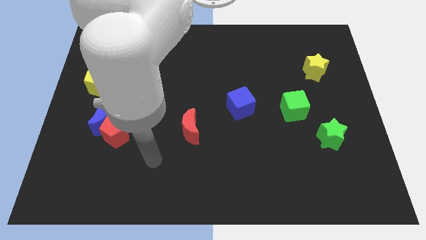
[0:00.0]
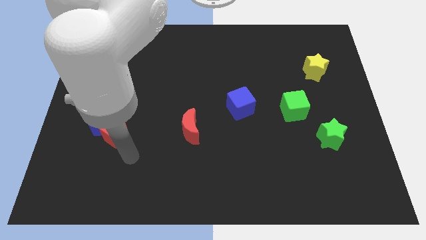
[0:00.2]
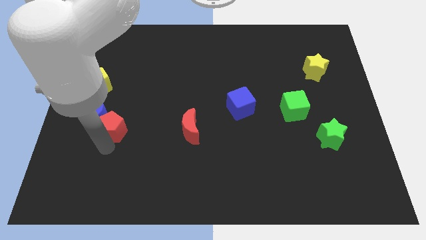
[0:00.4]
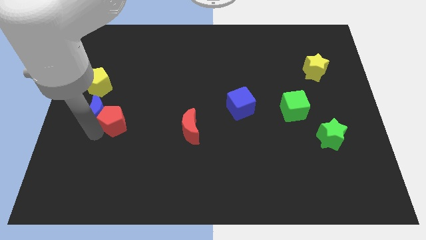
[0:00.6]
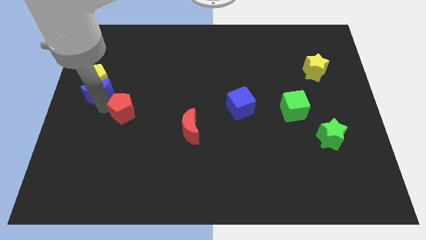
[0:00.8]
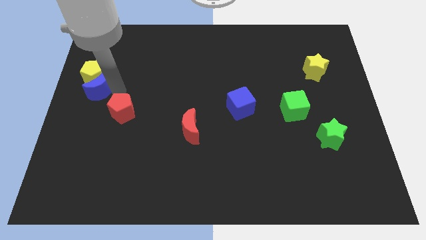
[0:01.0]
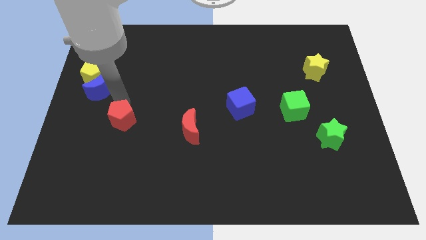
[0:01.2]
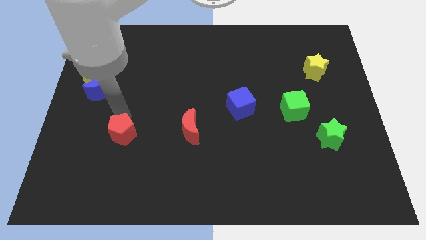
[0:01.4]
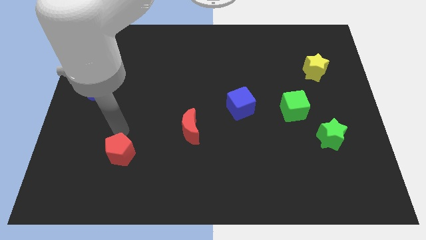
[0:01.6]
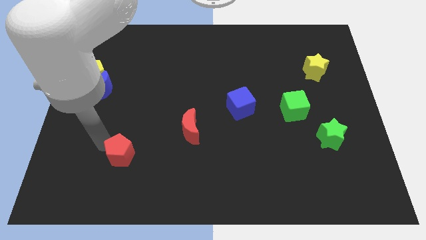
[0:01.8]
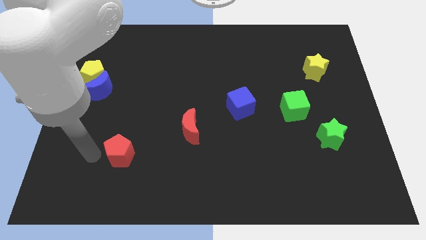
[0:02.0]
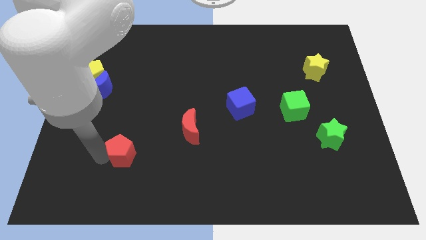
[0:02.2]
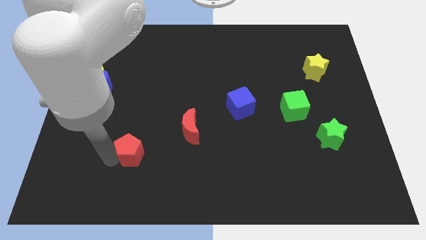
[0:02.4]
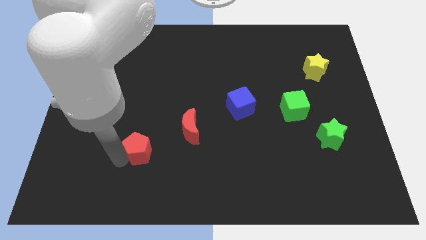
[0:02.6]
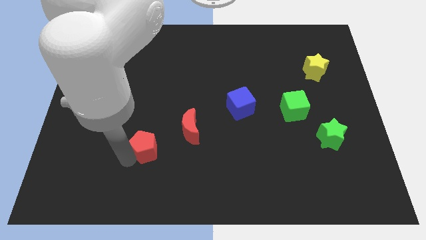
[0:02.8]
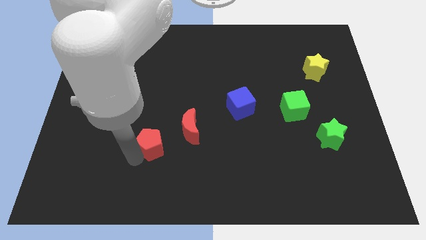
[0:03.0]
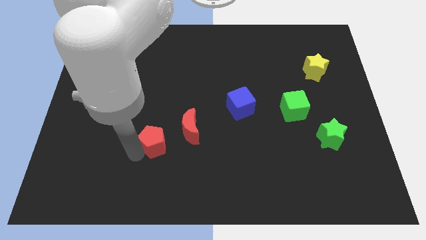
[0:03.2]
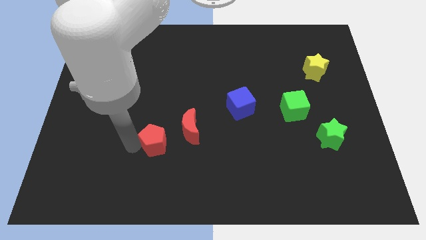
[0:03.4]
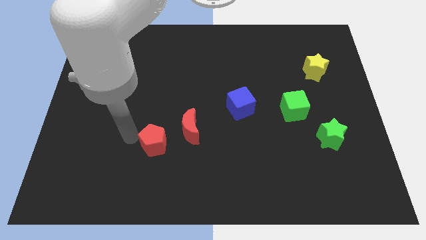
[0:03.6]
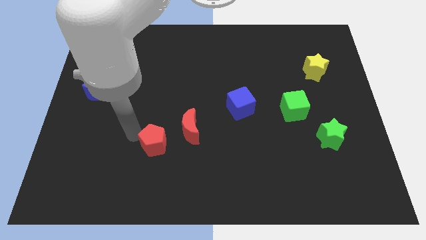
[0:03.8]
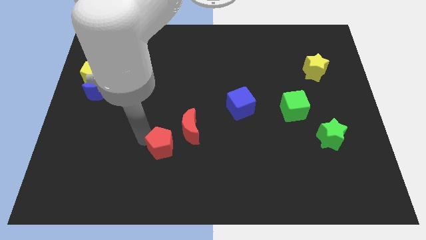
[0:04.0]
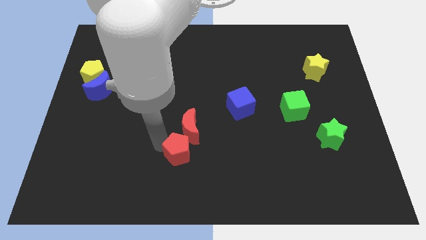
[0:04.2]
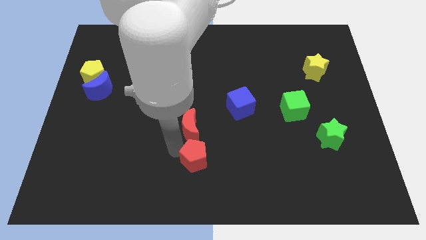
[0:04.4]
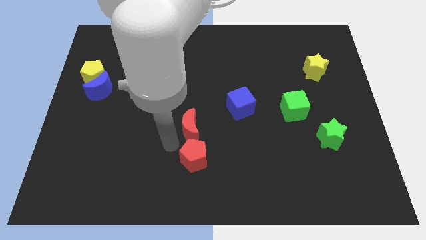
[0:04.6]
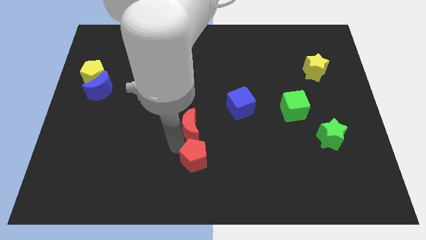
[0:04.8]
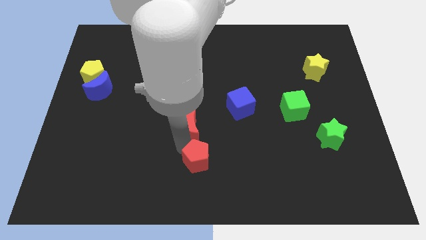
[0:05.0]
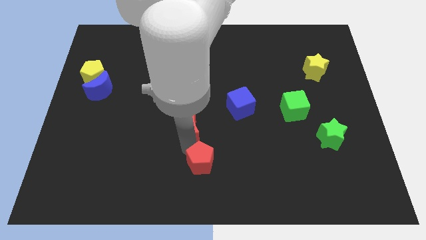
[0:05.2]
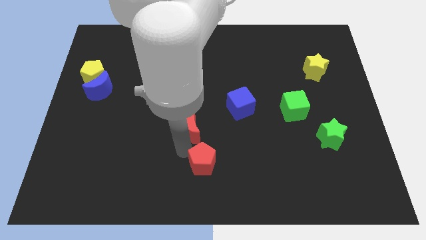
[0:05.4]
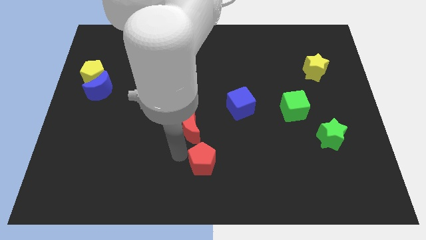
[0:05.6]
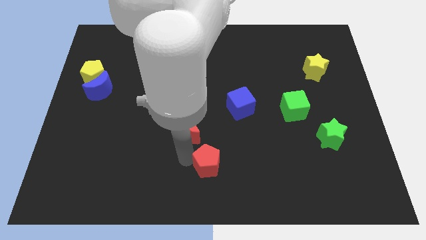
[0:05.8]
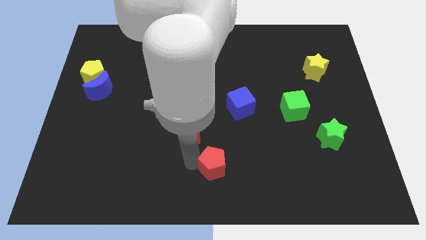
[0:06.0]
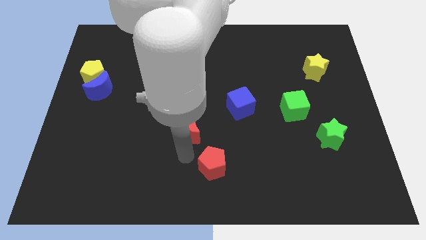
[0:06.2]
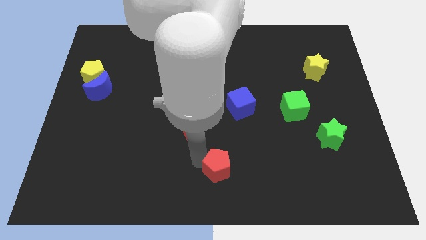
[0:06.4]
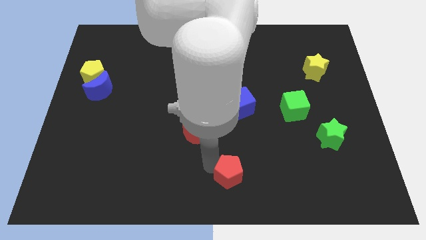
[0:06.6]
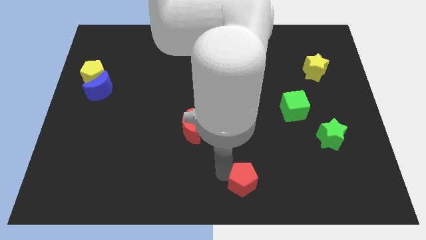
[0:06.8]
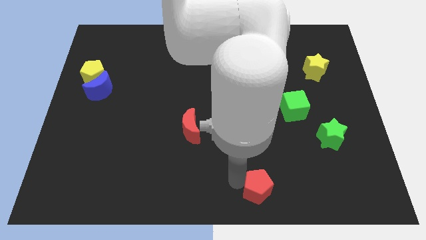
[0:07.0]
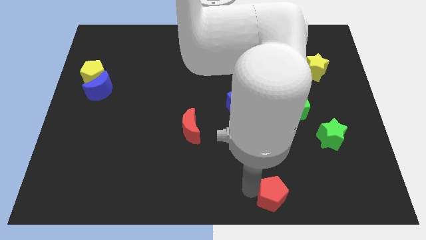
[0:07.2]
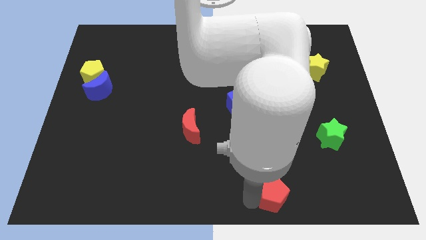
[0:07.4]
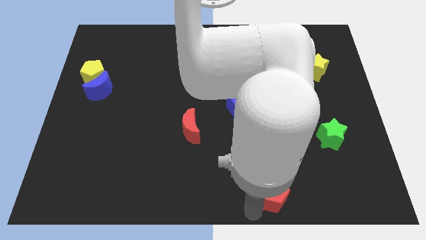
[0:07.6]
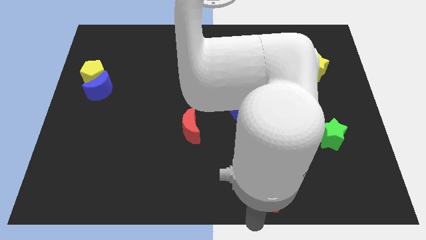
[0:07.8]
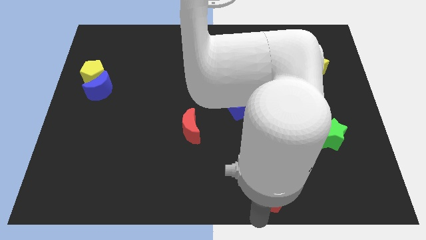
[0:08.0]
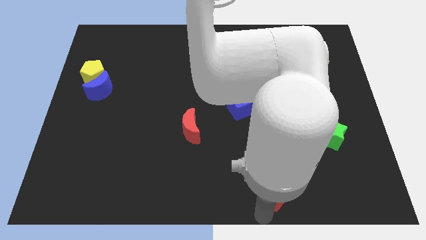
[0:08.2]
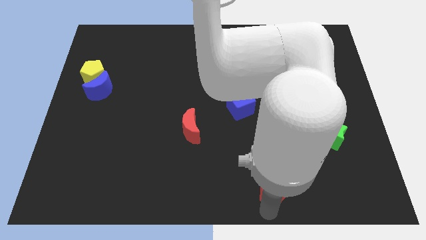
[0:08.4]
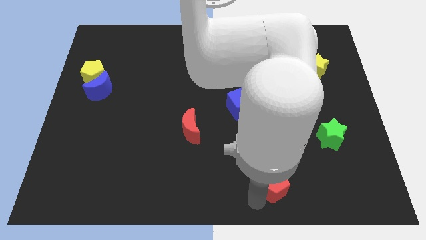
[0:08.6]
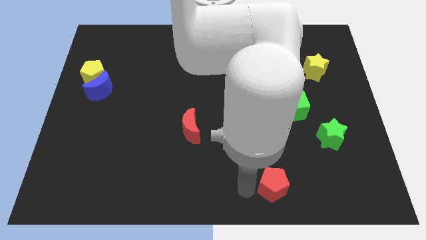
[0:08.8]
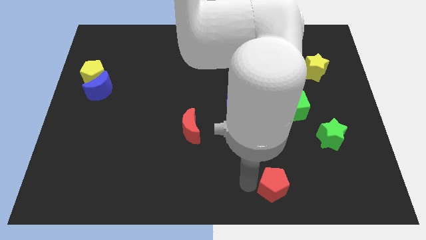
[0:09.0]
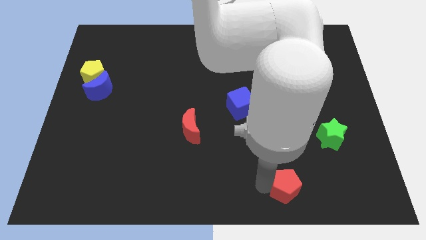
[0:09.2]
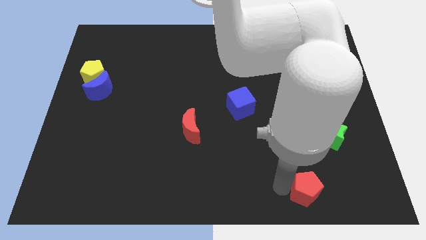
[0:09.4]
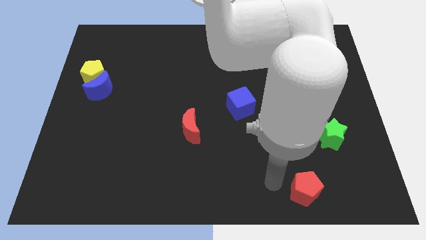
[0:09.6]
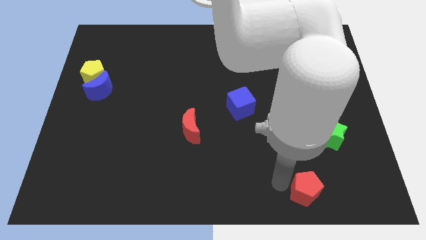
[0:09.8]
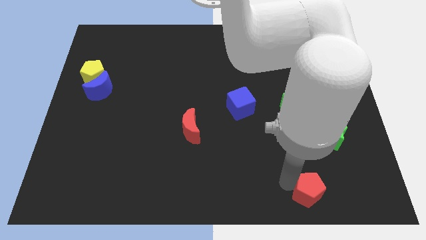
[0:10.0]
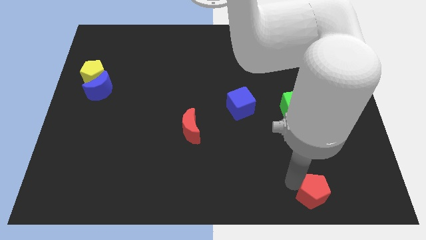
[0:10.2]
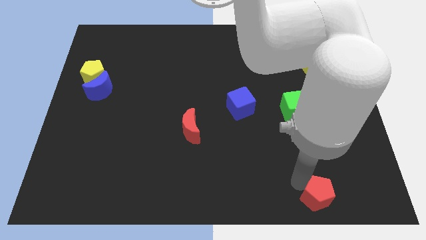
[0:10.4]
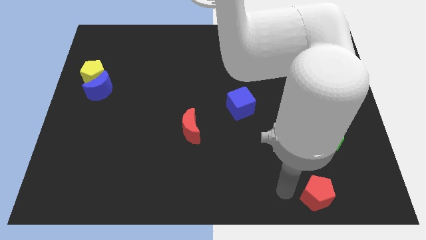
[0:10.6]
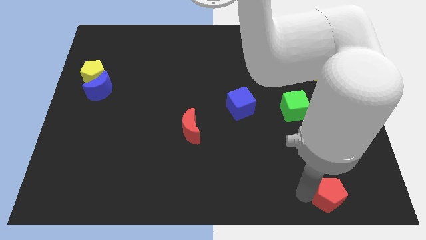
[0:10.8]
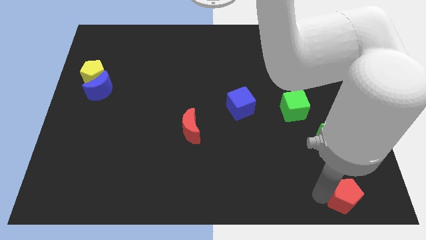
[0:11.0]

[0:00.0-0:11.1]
slide the red pentagon to the bottom right corner

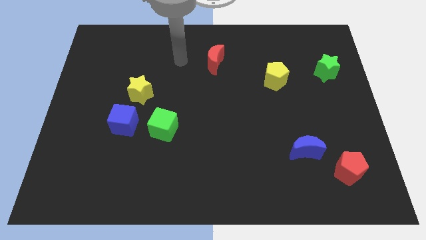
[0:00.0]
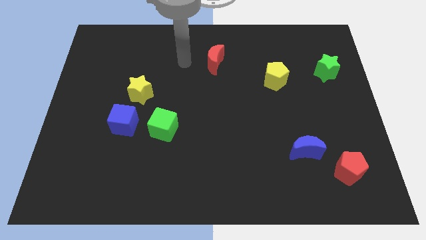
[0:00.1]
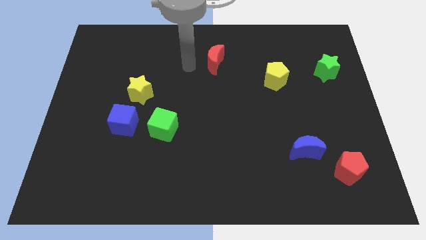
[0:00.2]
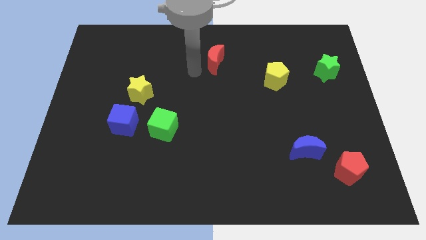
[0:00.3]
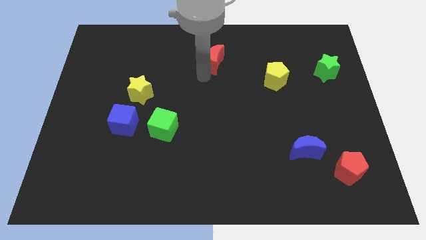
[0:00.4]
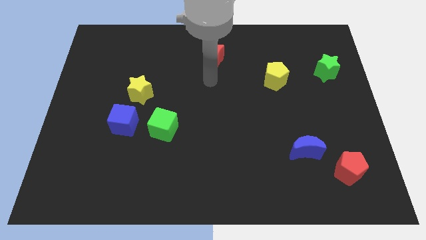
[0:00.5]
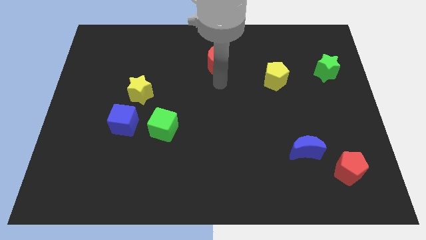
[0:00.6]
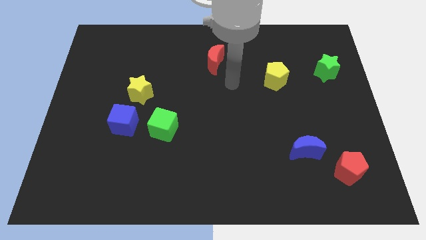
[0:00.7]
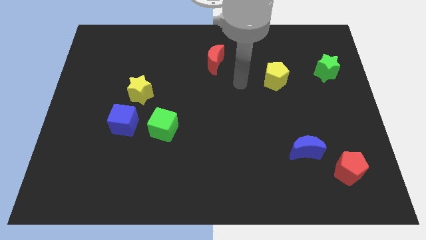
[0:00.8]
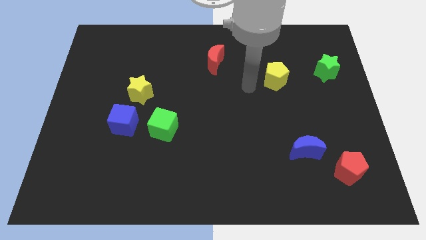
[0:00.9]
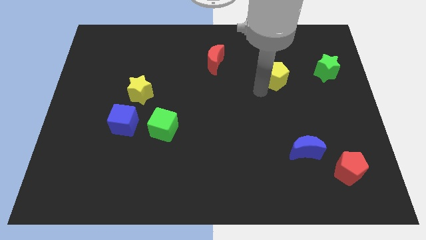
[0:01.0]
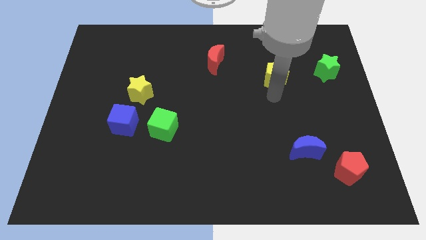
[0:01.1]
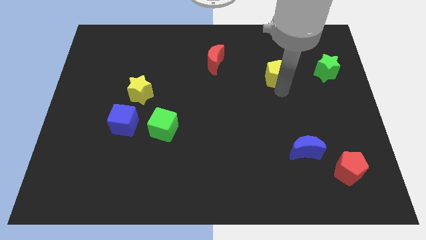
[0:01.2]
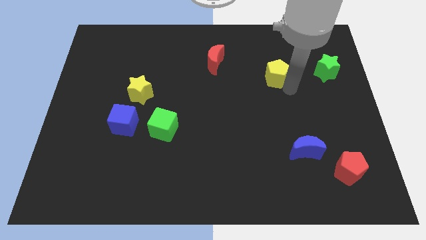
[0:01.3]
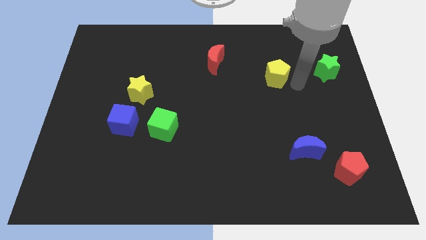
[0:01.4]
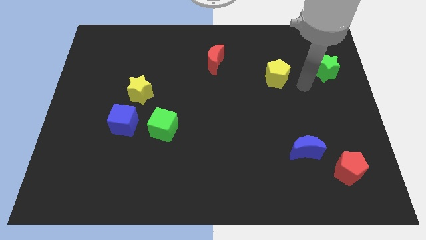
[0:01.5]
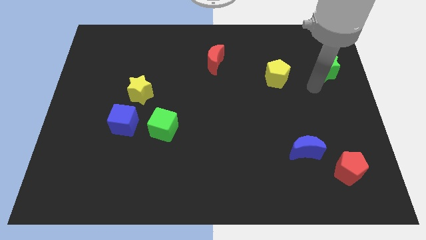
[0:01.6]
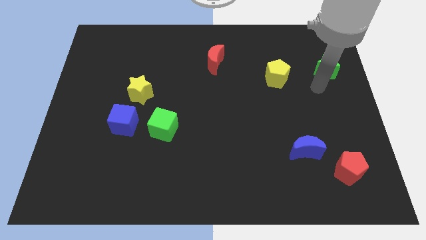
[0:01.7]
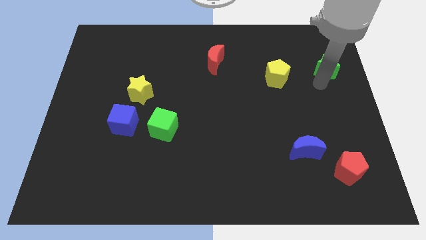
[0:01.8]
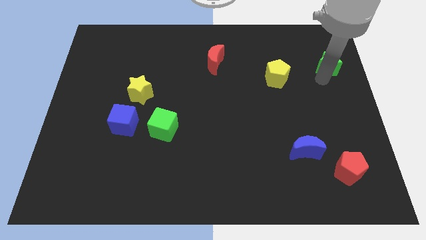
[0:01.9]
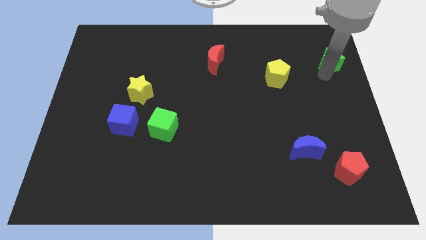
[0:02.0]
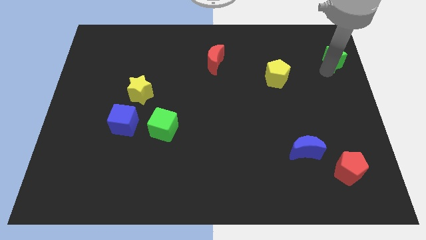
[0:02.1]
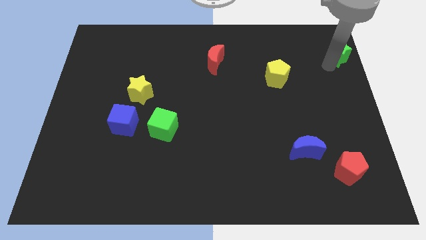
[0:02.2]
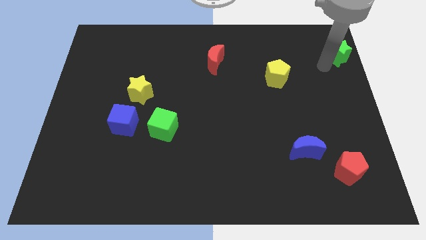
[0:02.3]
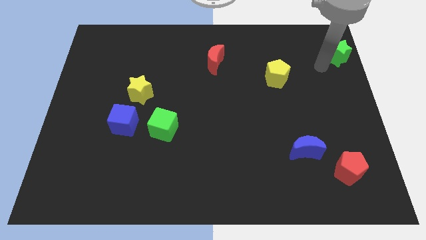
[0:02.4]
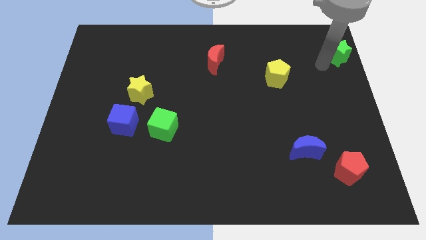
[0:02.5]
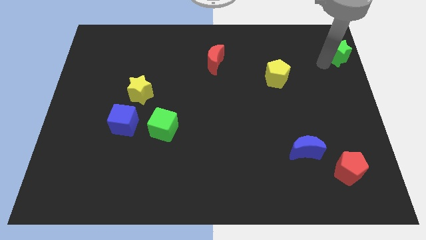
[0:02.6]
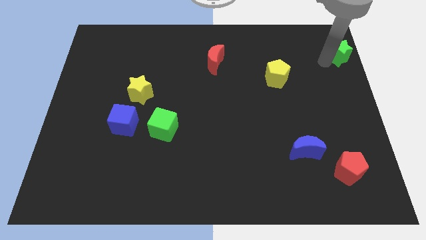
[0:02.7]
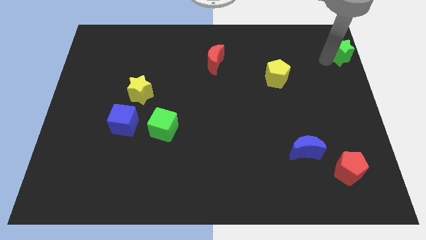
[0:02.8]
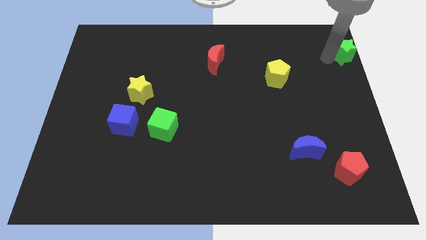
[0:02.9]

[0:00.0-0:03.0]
slide the green star to the top right
